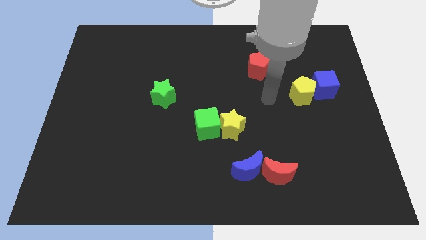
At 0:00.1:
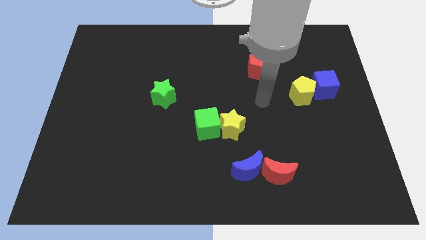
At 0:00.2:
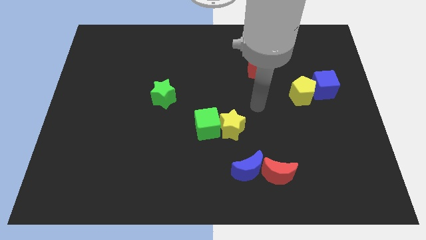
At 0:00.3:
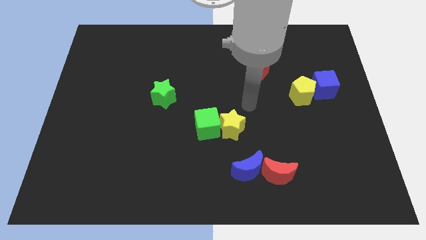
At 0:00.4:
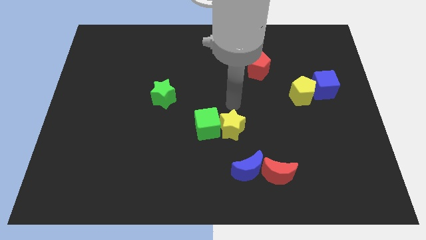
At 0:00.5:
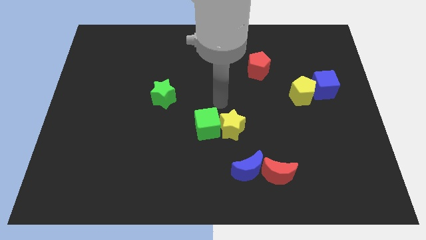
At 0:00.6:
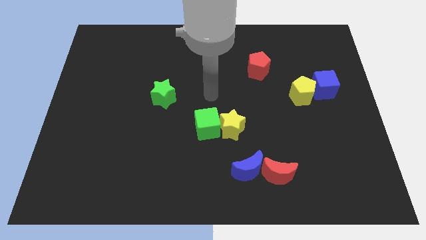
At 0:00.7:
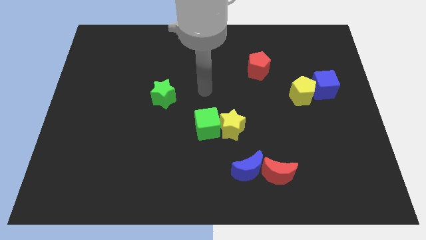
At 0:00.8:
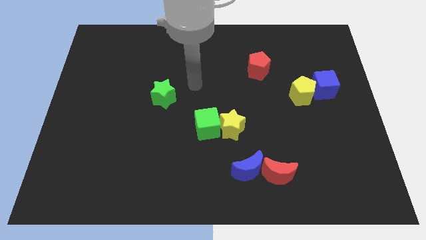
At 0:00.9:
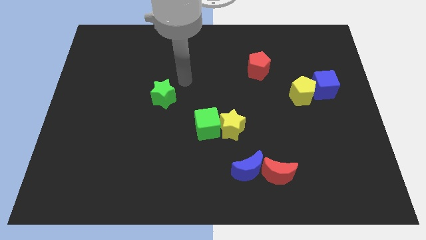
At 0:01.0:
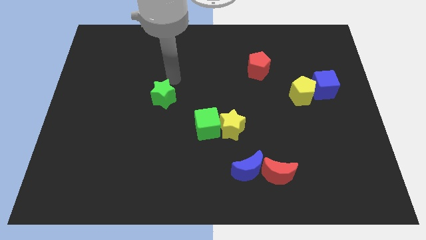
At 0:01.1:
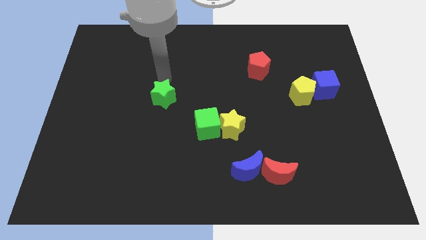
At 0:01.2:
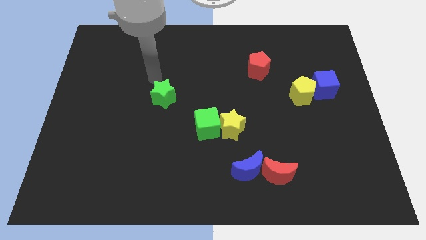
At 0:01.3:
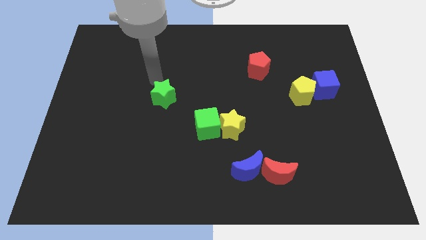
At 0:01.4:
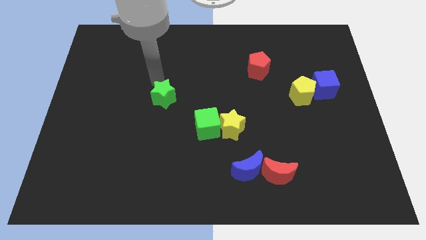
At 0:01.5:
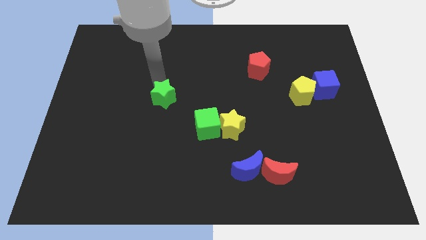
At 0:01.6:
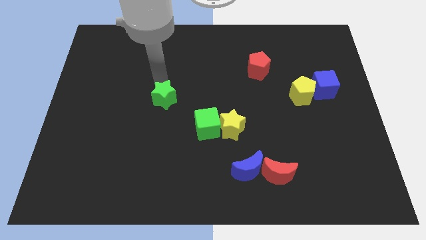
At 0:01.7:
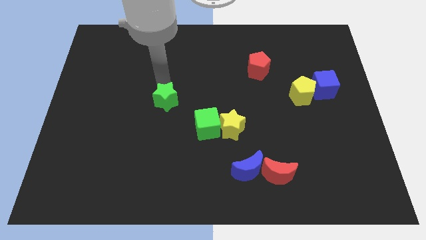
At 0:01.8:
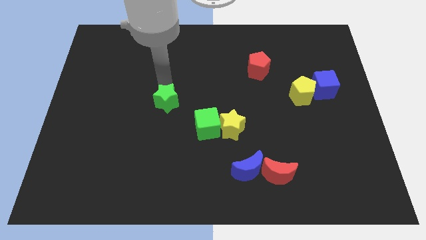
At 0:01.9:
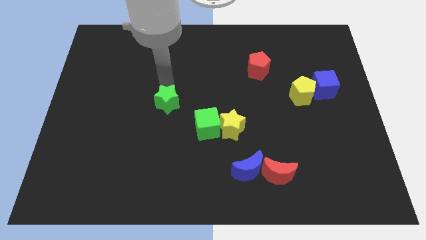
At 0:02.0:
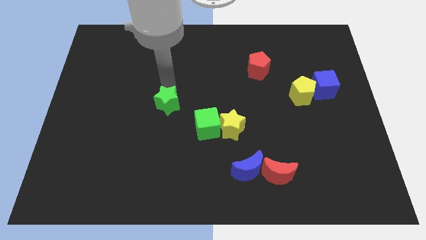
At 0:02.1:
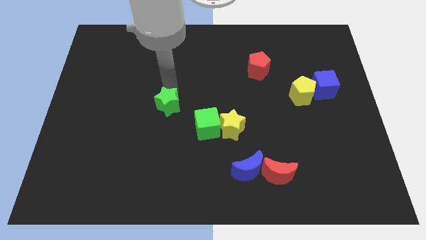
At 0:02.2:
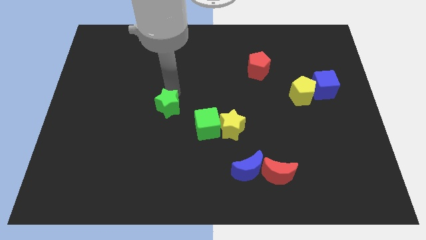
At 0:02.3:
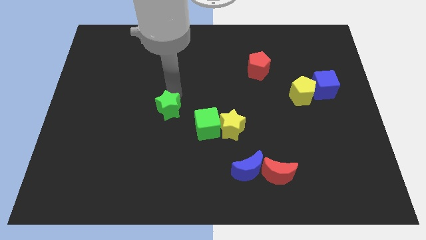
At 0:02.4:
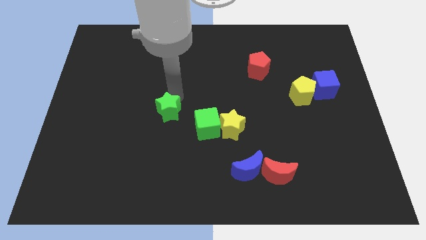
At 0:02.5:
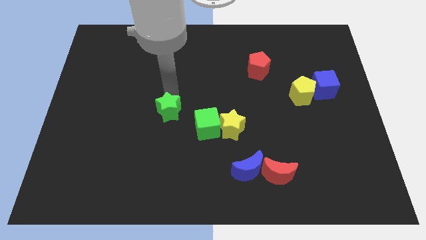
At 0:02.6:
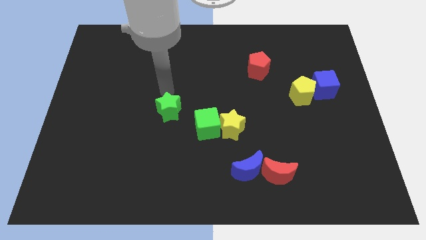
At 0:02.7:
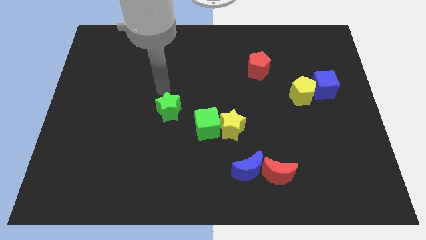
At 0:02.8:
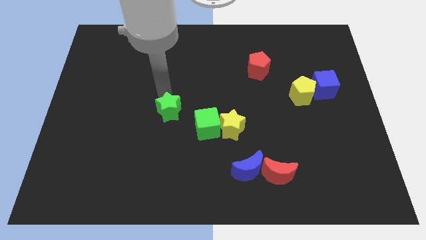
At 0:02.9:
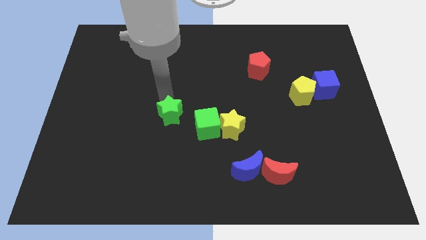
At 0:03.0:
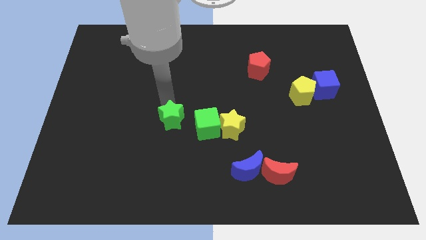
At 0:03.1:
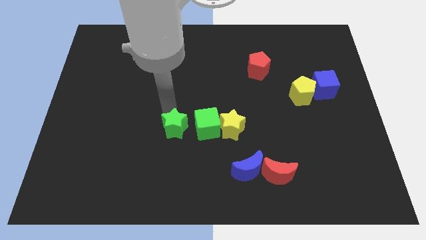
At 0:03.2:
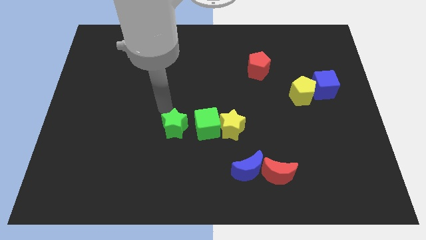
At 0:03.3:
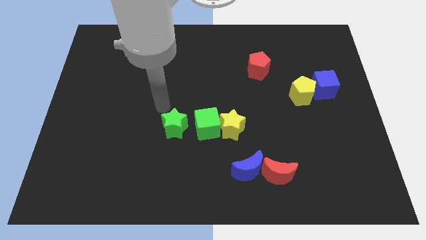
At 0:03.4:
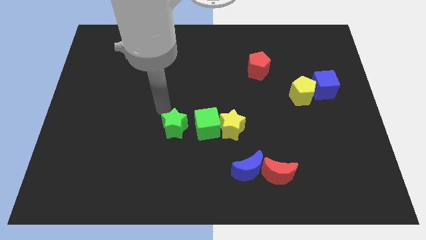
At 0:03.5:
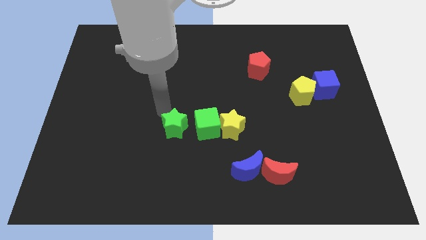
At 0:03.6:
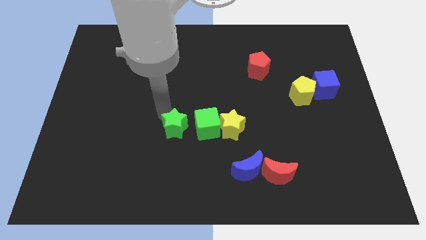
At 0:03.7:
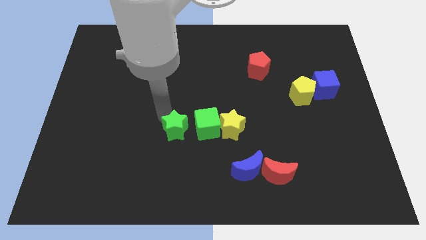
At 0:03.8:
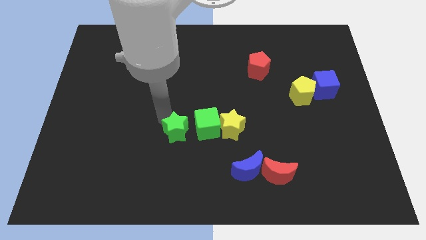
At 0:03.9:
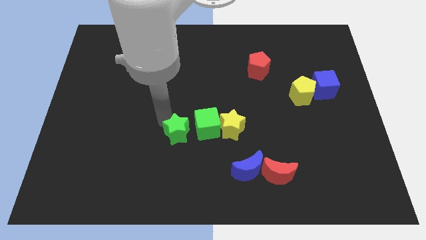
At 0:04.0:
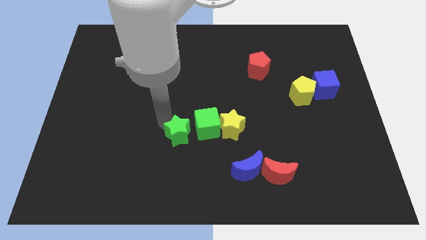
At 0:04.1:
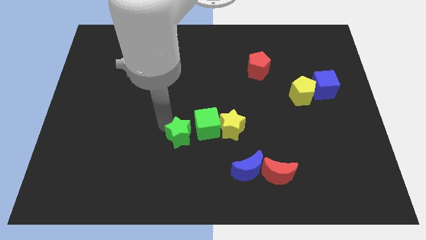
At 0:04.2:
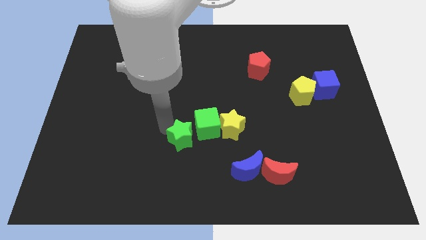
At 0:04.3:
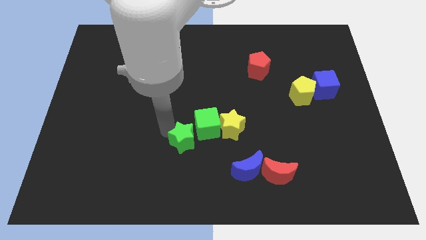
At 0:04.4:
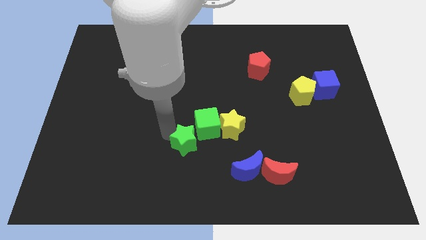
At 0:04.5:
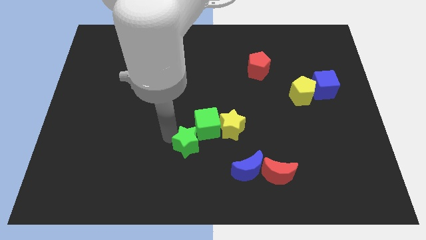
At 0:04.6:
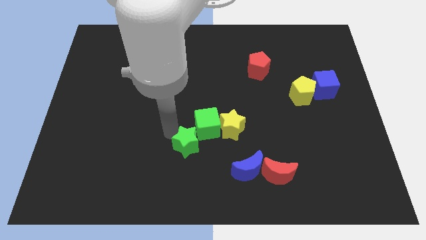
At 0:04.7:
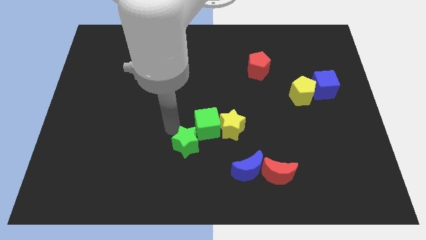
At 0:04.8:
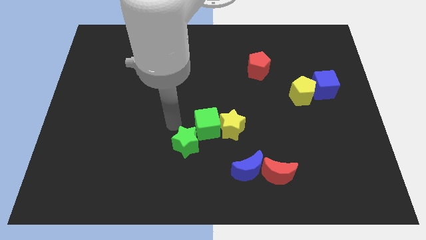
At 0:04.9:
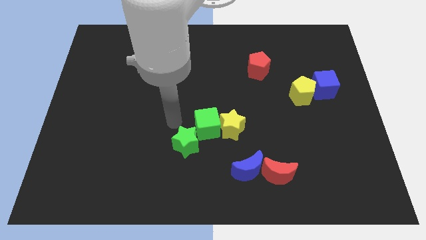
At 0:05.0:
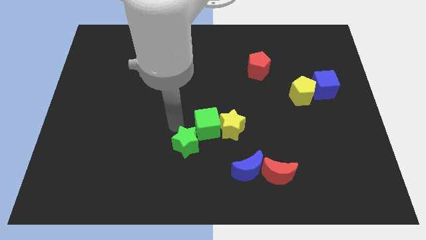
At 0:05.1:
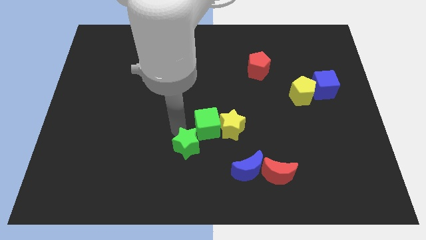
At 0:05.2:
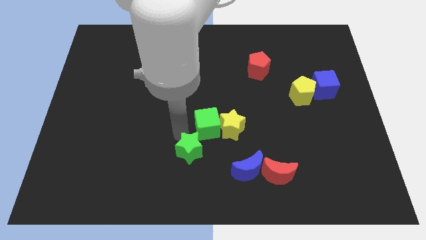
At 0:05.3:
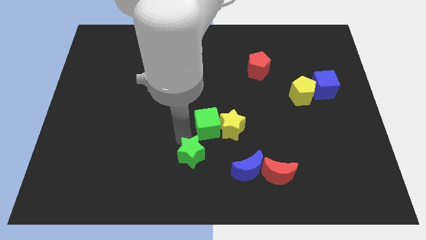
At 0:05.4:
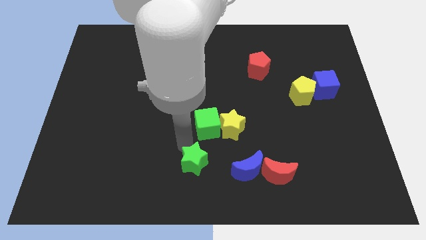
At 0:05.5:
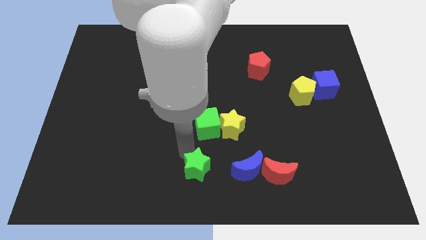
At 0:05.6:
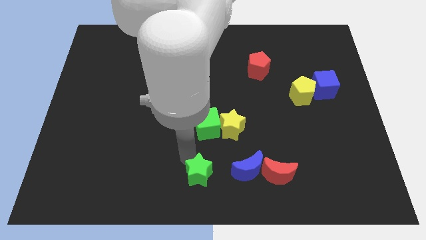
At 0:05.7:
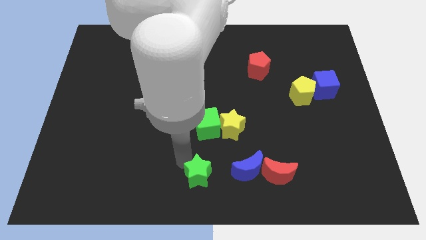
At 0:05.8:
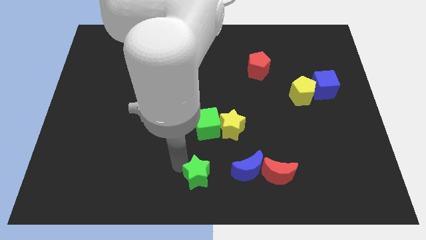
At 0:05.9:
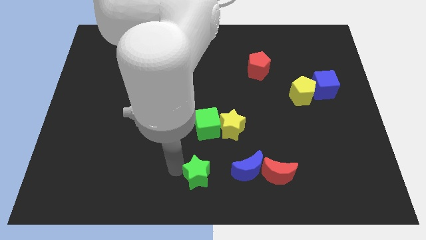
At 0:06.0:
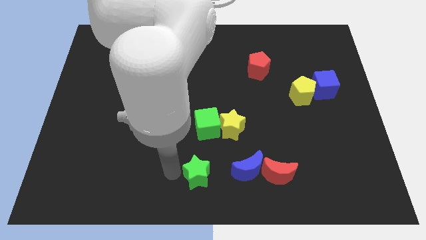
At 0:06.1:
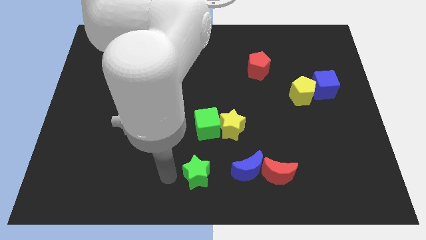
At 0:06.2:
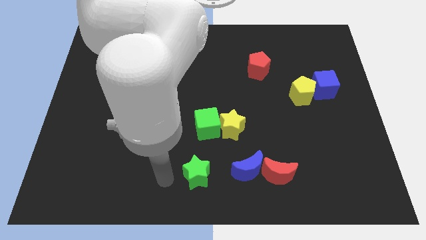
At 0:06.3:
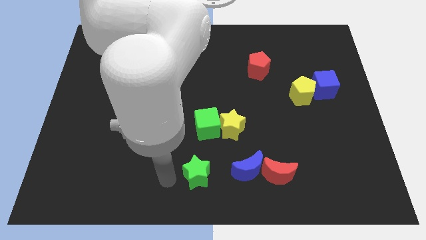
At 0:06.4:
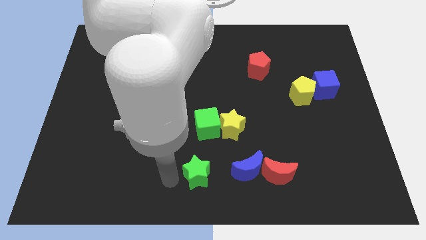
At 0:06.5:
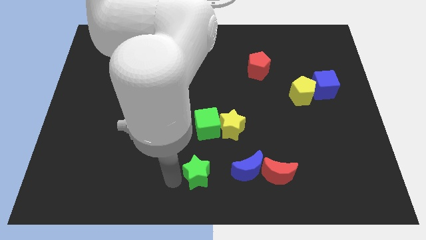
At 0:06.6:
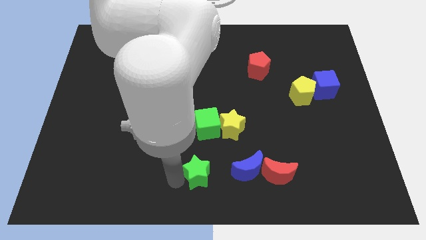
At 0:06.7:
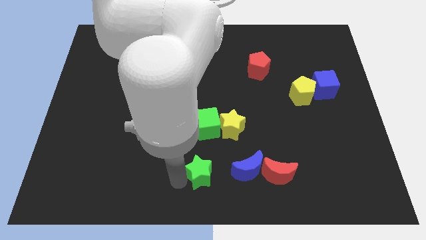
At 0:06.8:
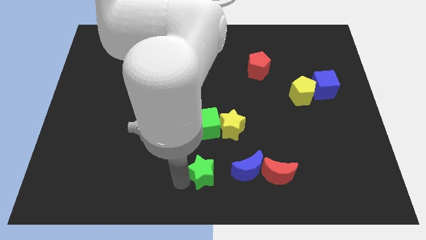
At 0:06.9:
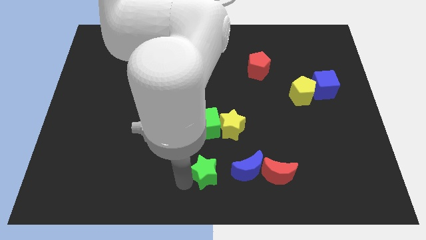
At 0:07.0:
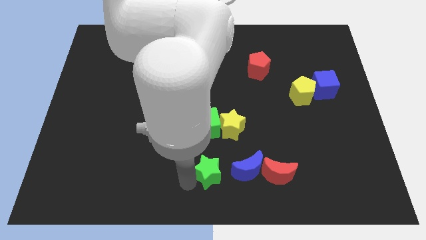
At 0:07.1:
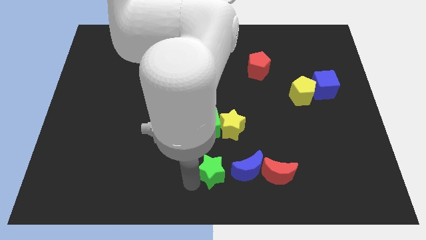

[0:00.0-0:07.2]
slide the green star to the bottom of the yellow star
